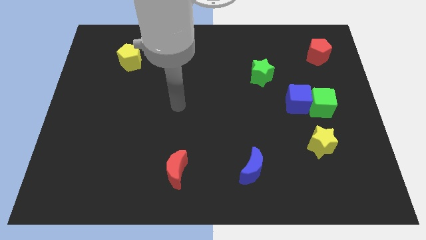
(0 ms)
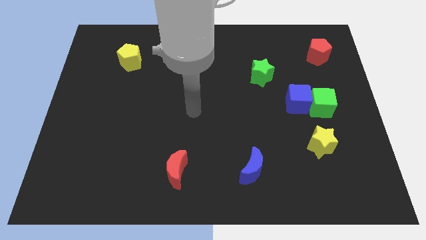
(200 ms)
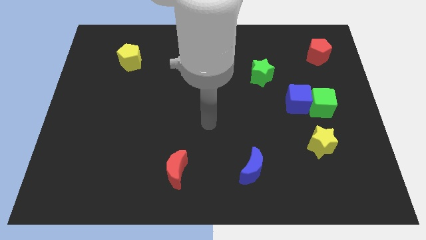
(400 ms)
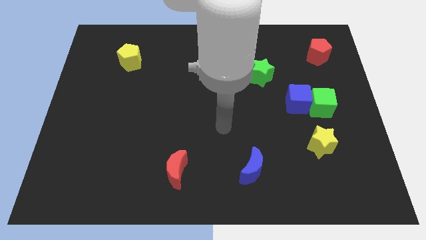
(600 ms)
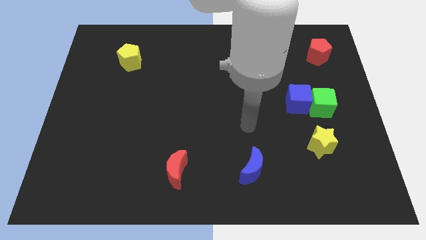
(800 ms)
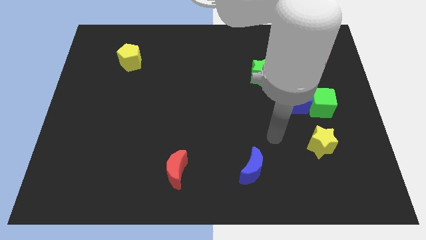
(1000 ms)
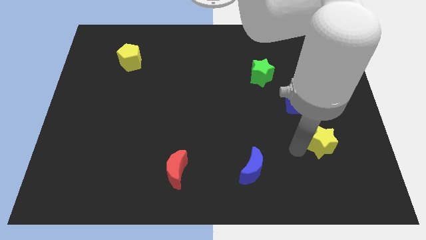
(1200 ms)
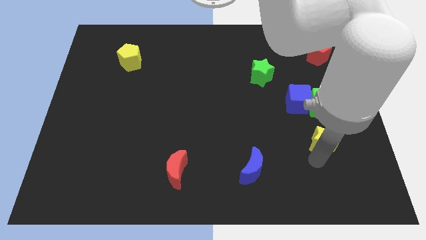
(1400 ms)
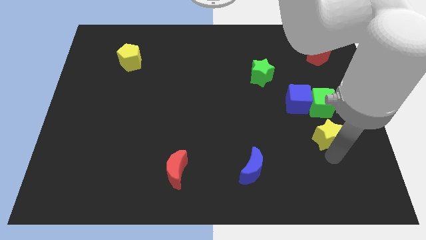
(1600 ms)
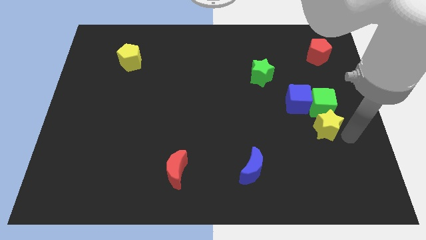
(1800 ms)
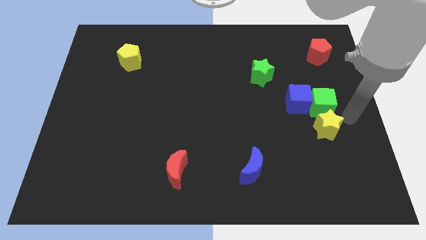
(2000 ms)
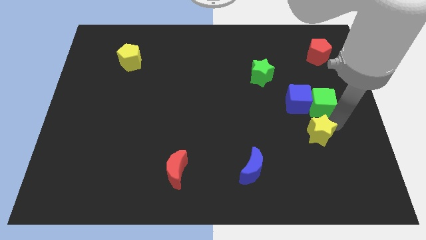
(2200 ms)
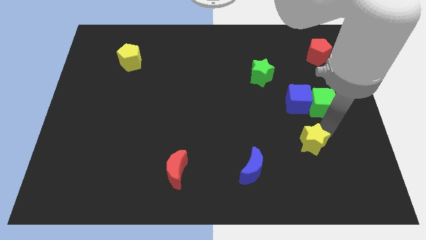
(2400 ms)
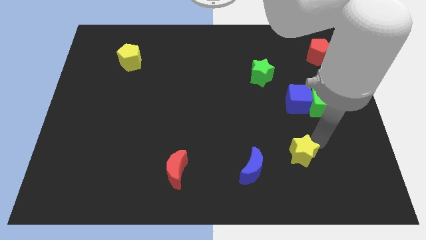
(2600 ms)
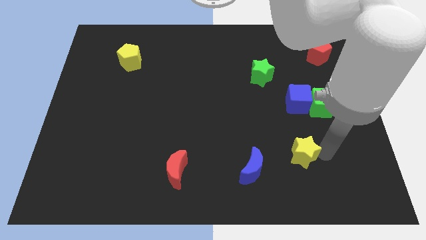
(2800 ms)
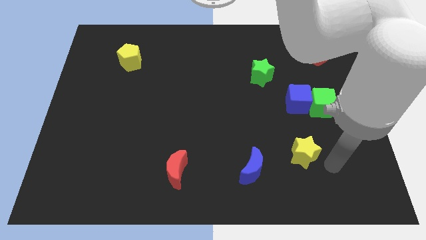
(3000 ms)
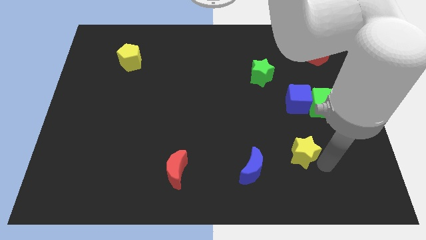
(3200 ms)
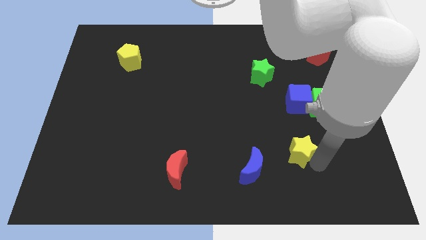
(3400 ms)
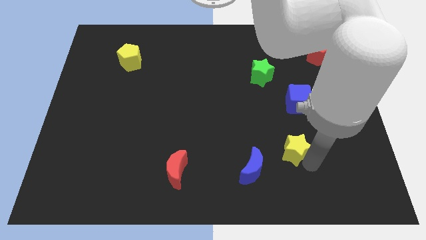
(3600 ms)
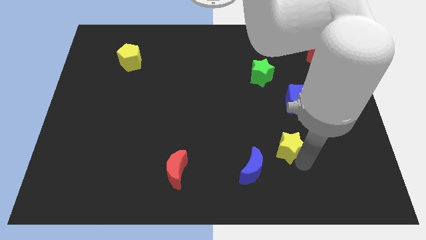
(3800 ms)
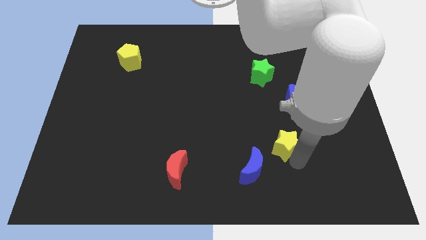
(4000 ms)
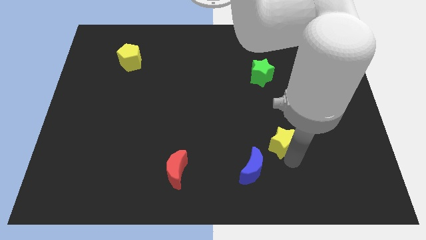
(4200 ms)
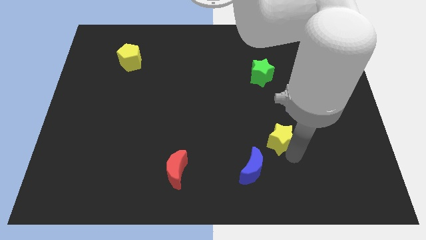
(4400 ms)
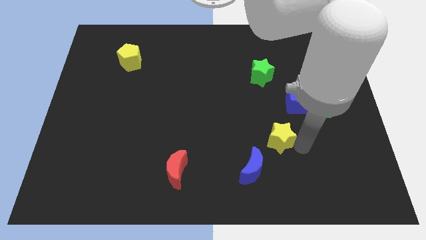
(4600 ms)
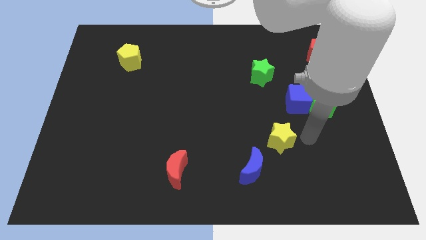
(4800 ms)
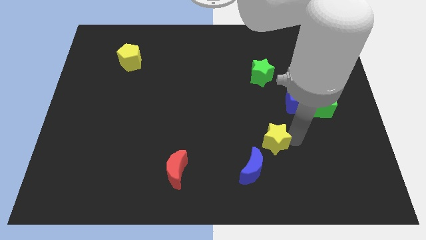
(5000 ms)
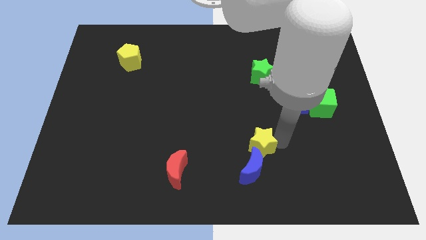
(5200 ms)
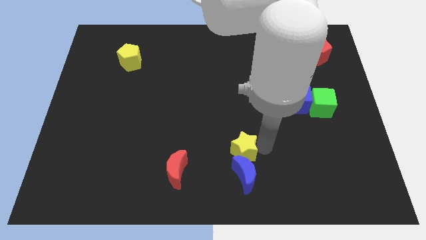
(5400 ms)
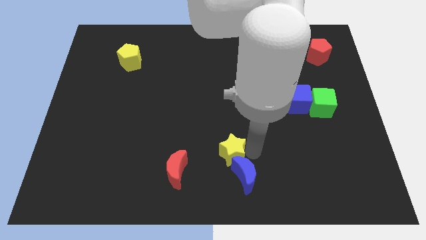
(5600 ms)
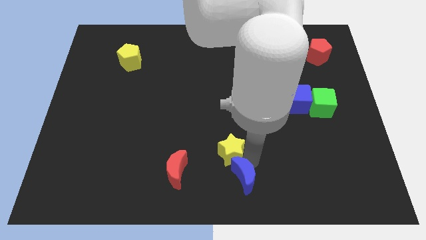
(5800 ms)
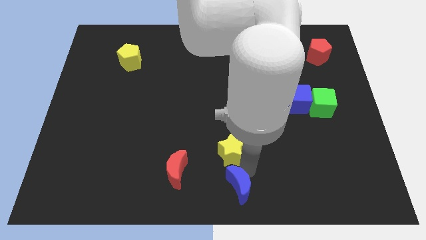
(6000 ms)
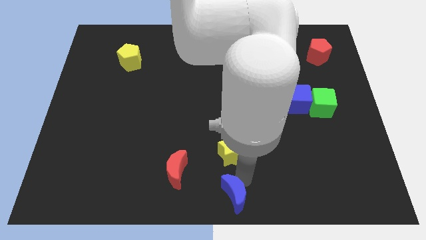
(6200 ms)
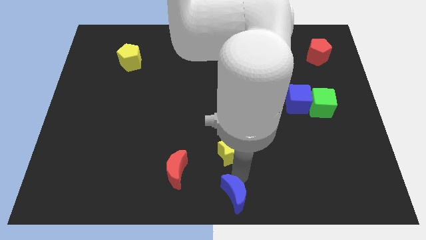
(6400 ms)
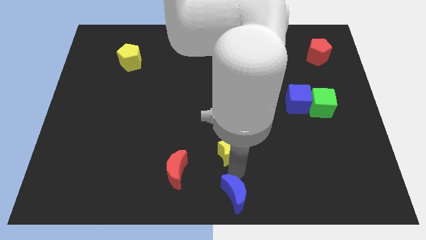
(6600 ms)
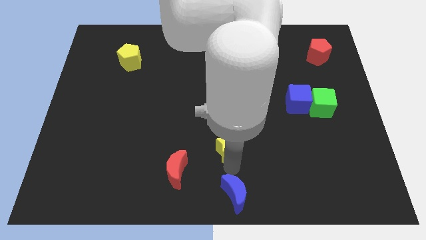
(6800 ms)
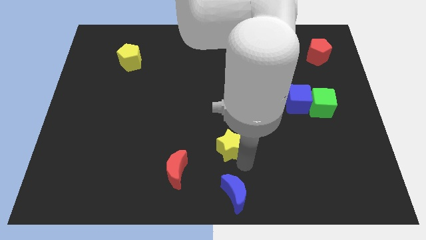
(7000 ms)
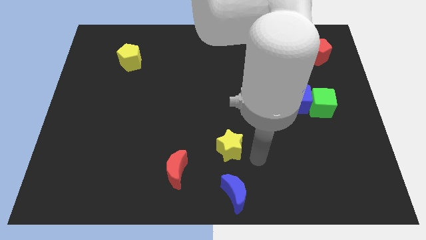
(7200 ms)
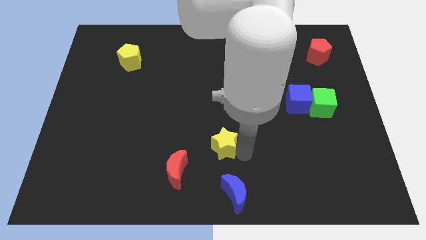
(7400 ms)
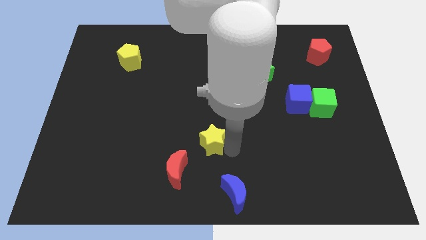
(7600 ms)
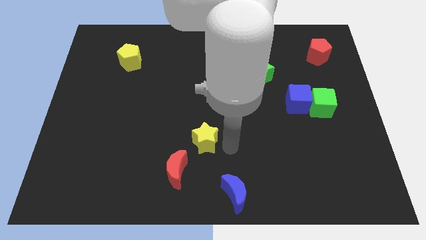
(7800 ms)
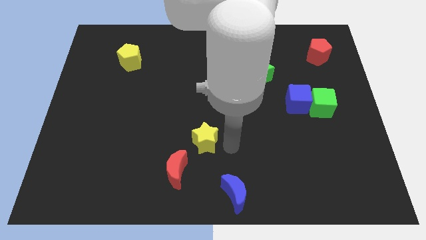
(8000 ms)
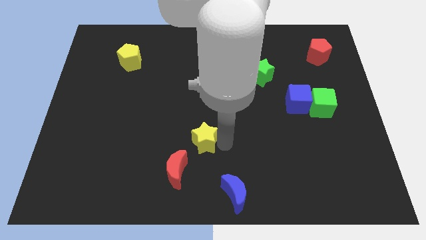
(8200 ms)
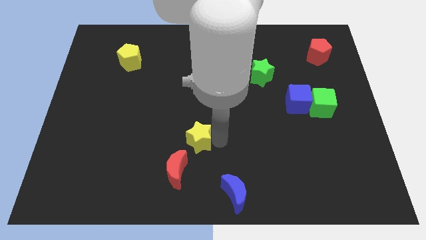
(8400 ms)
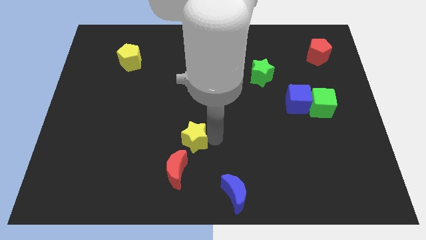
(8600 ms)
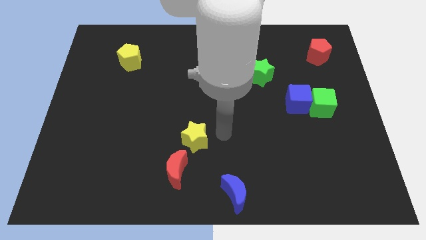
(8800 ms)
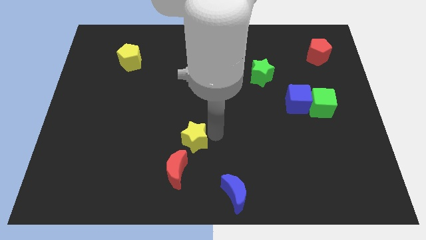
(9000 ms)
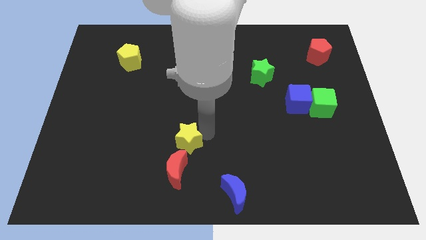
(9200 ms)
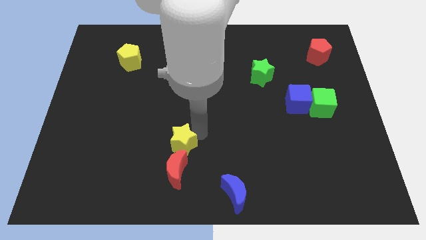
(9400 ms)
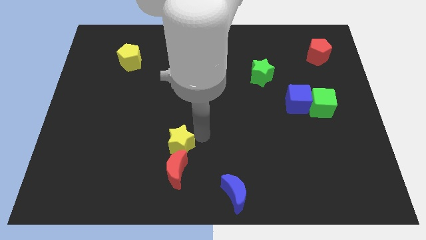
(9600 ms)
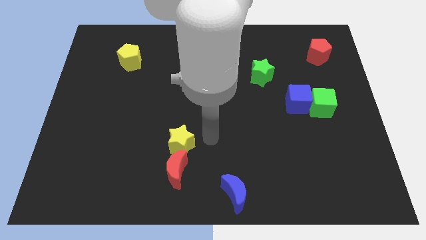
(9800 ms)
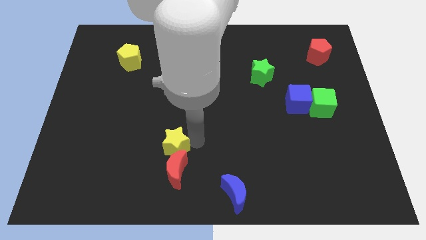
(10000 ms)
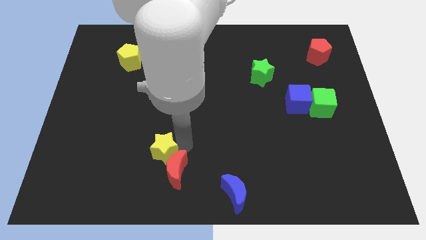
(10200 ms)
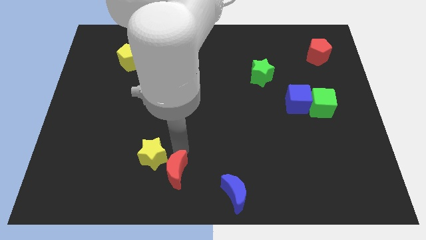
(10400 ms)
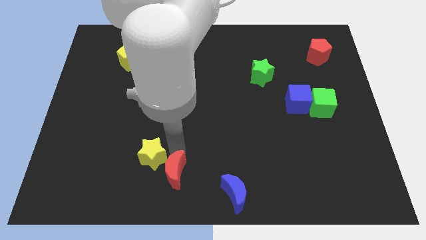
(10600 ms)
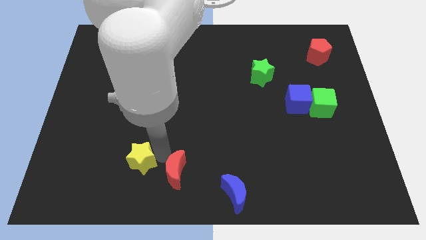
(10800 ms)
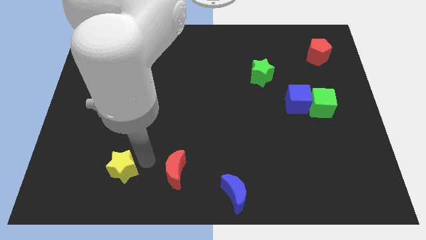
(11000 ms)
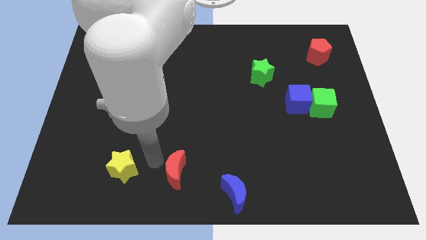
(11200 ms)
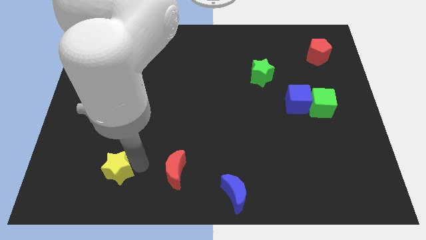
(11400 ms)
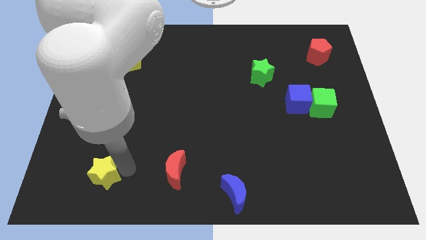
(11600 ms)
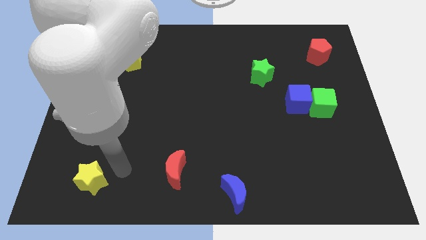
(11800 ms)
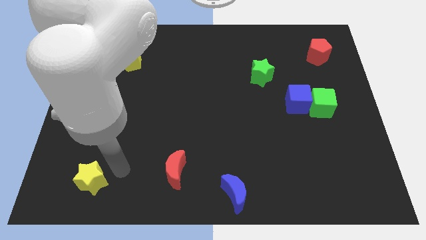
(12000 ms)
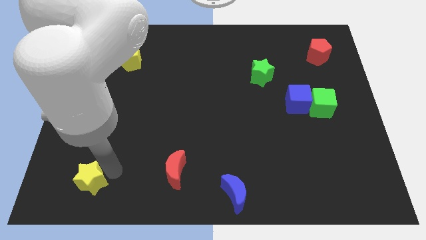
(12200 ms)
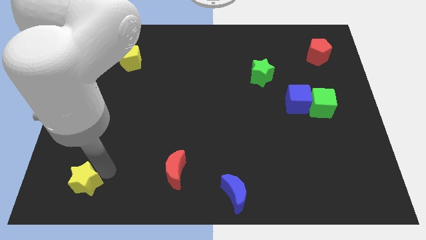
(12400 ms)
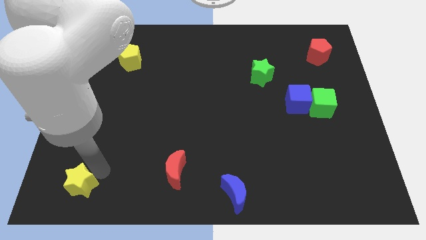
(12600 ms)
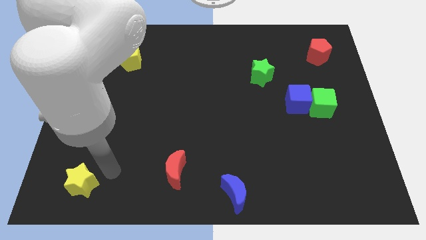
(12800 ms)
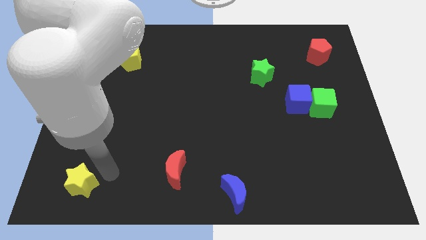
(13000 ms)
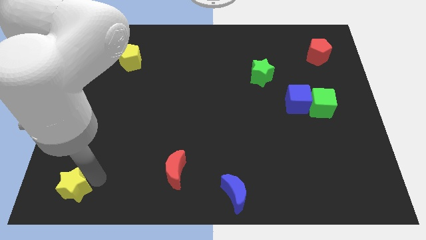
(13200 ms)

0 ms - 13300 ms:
put the yellow star to the bottom left corner
